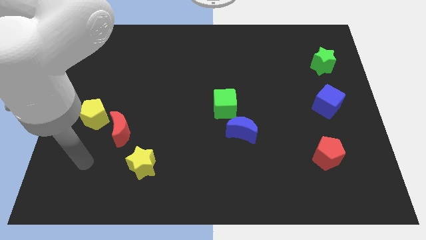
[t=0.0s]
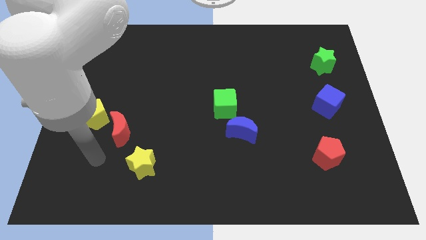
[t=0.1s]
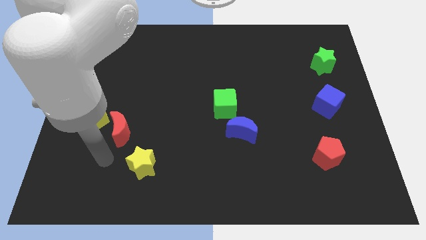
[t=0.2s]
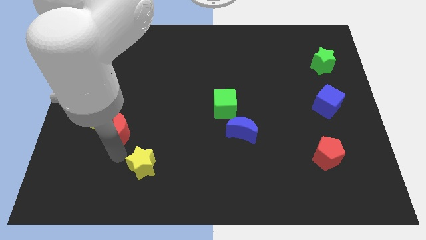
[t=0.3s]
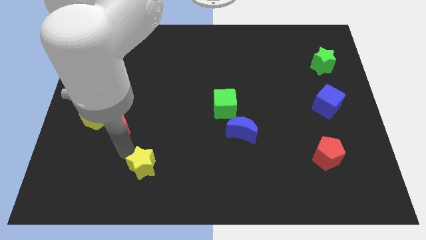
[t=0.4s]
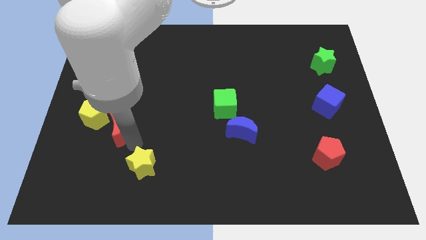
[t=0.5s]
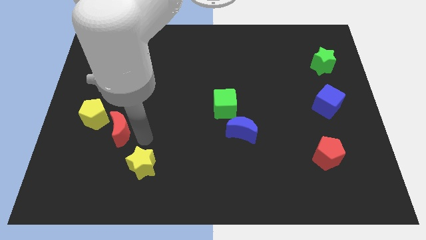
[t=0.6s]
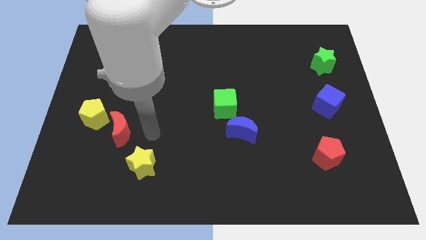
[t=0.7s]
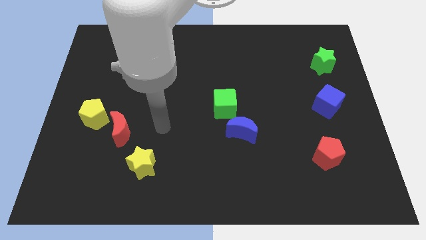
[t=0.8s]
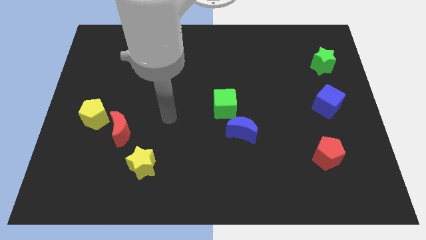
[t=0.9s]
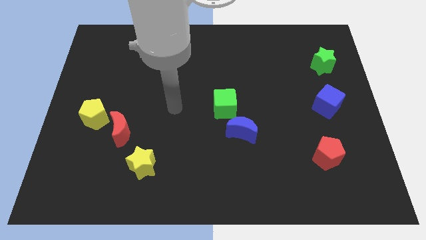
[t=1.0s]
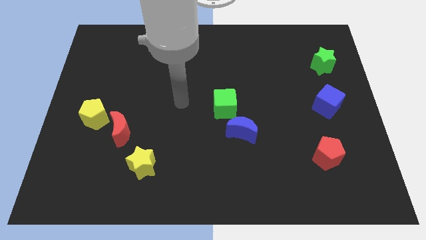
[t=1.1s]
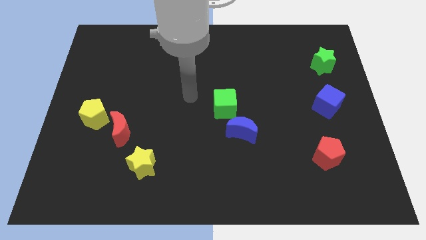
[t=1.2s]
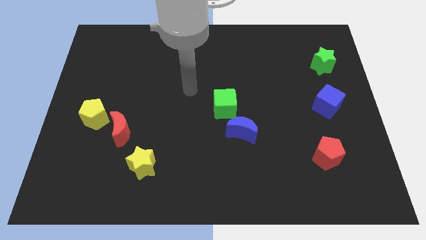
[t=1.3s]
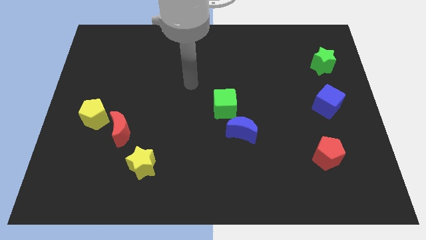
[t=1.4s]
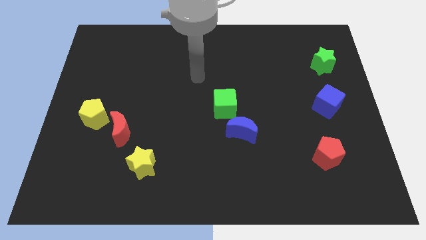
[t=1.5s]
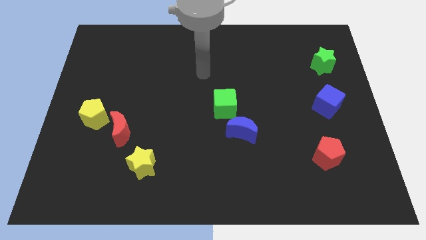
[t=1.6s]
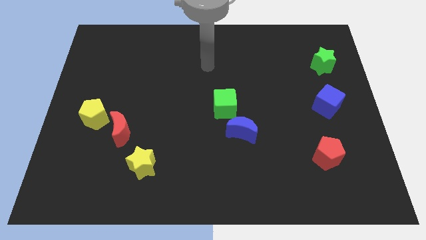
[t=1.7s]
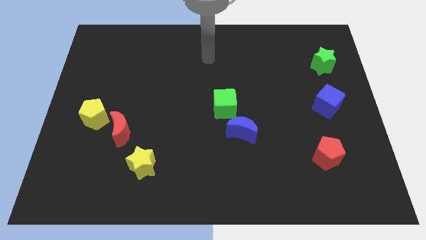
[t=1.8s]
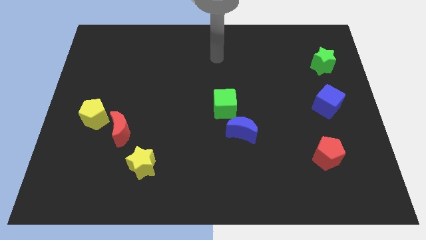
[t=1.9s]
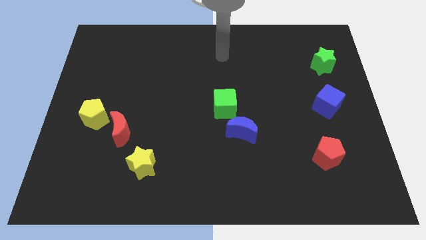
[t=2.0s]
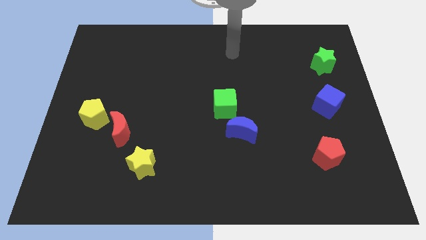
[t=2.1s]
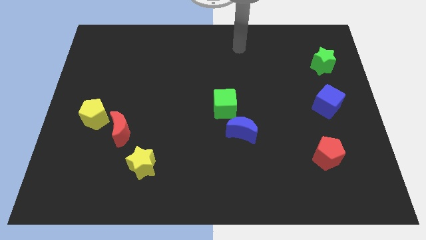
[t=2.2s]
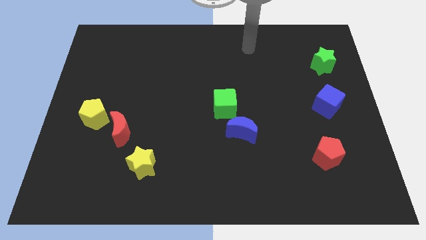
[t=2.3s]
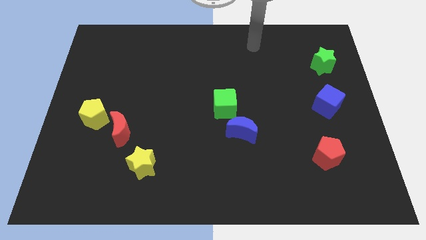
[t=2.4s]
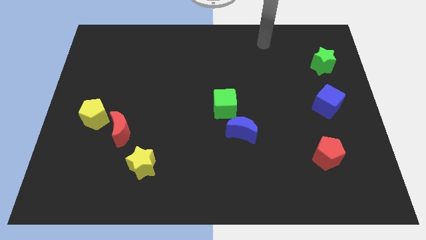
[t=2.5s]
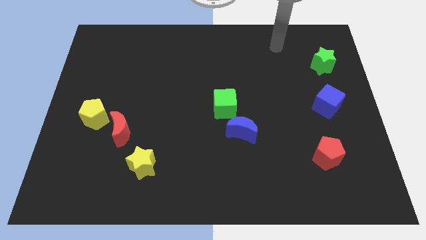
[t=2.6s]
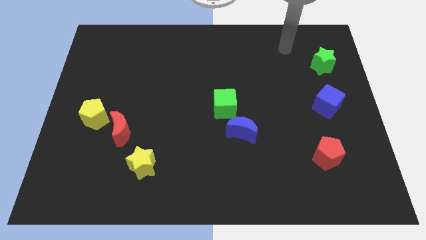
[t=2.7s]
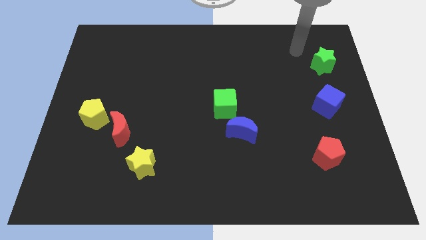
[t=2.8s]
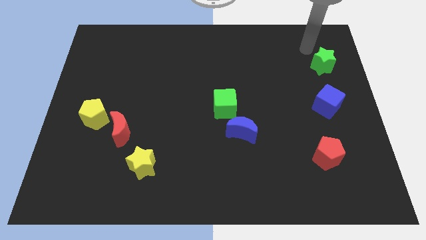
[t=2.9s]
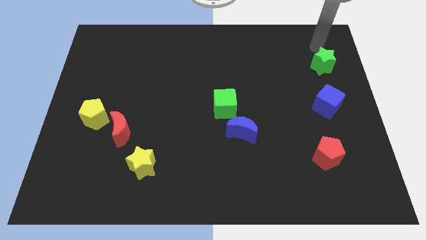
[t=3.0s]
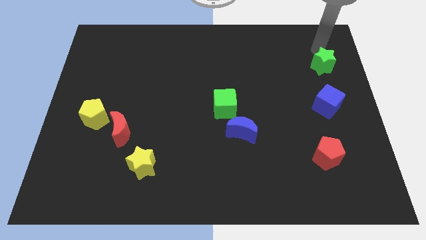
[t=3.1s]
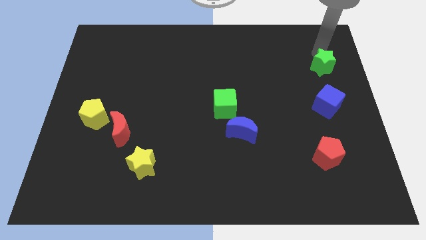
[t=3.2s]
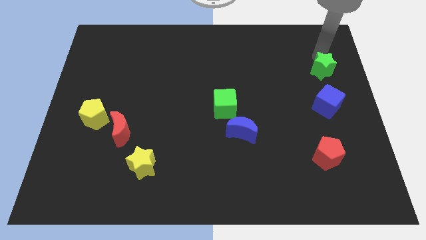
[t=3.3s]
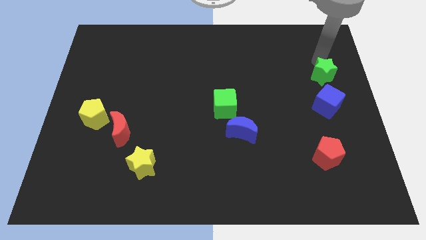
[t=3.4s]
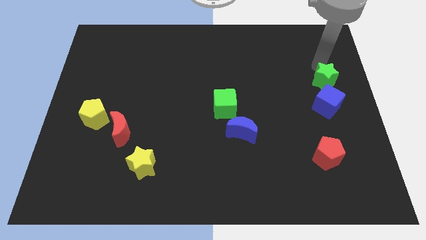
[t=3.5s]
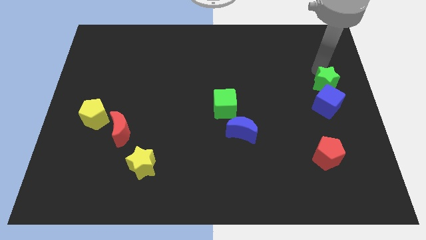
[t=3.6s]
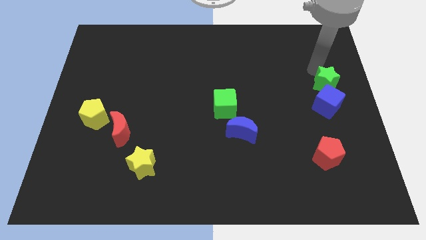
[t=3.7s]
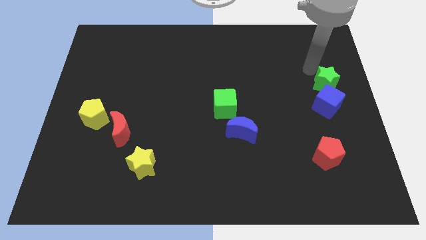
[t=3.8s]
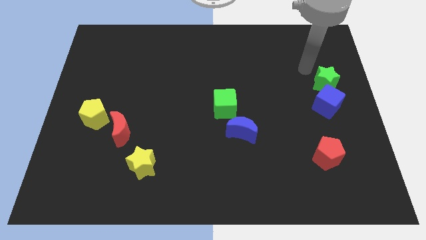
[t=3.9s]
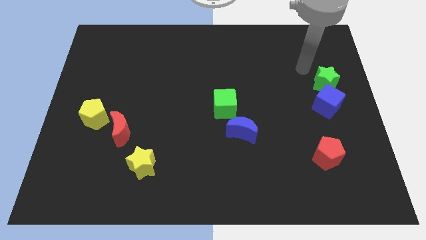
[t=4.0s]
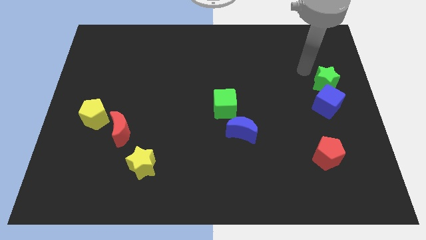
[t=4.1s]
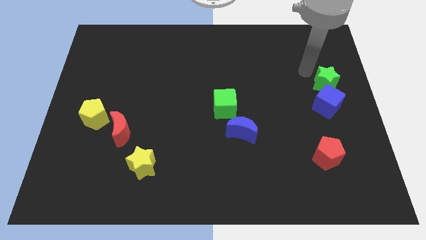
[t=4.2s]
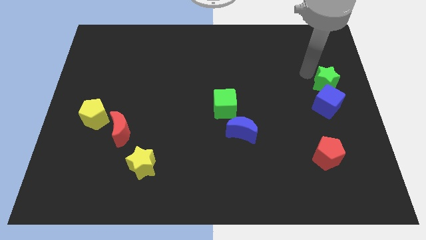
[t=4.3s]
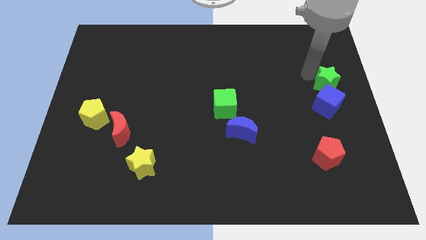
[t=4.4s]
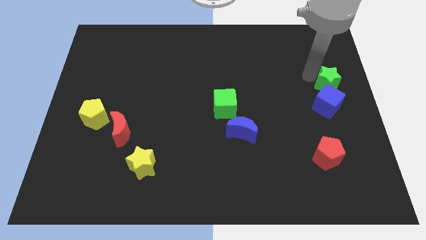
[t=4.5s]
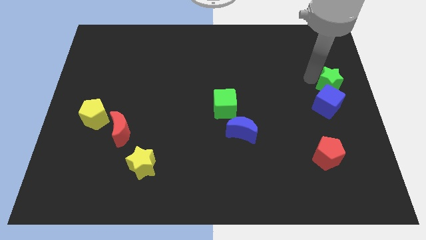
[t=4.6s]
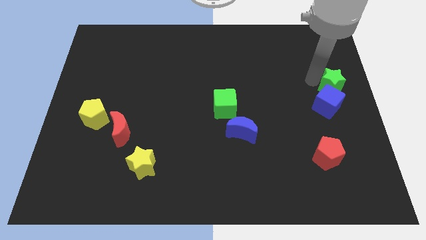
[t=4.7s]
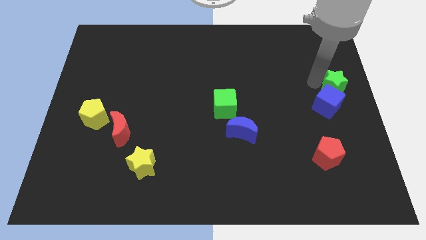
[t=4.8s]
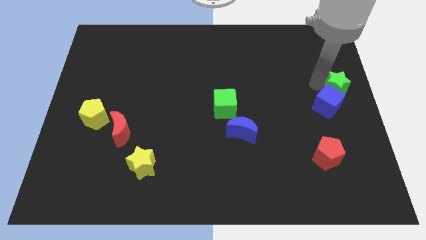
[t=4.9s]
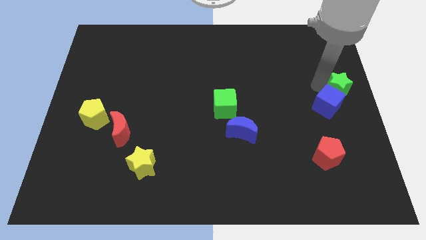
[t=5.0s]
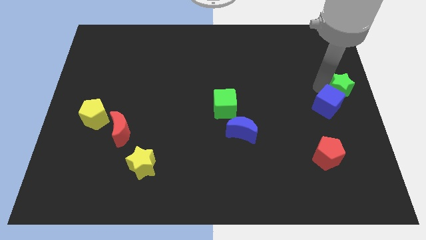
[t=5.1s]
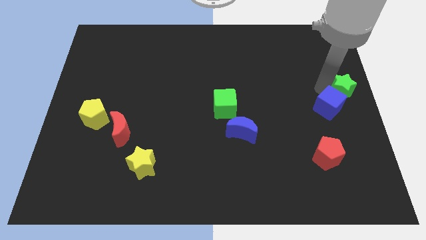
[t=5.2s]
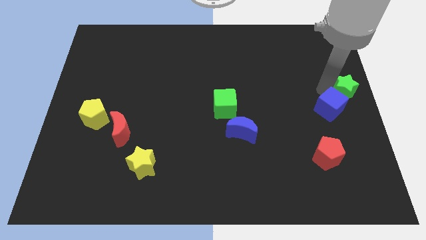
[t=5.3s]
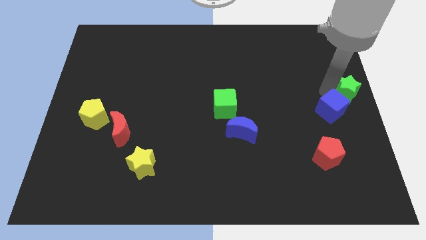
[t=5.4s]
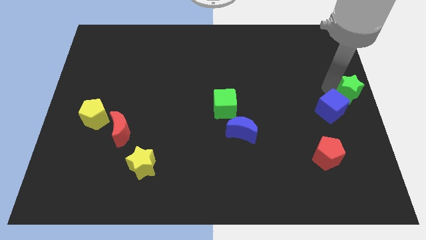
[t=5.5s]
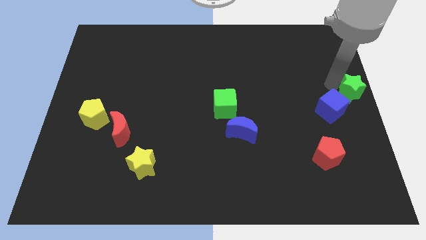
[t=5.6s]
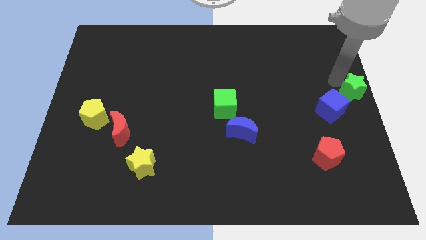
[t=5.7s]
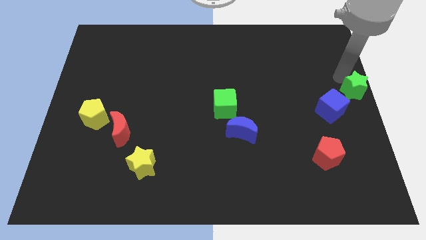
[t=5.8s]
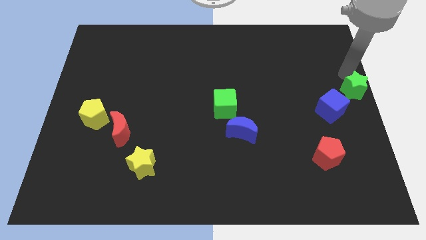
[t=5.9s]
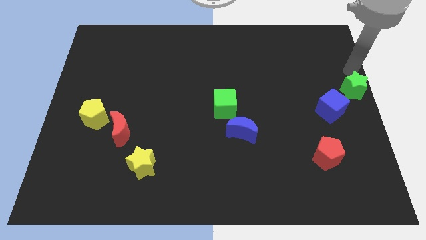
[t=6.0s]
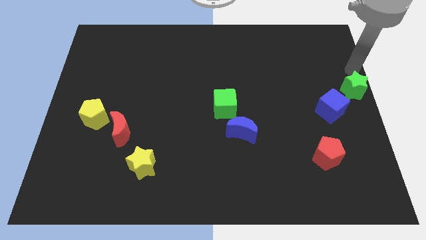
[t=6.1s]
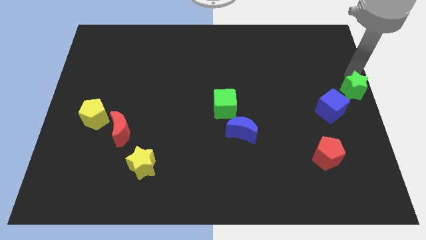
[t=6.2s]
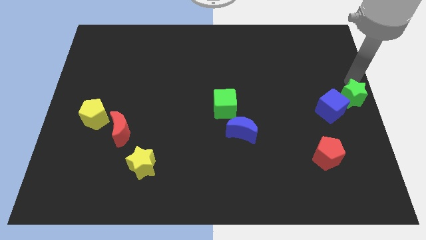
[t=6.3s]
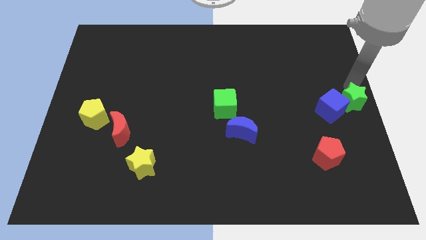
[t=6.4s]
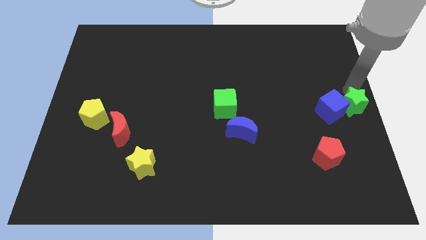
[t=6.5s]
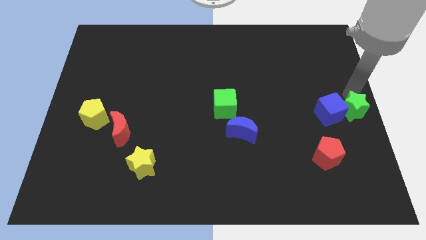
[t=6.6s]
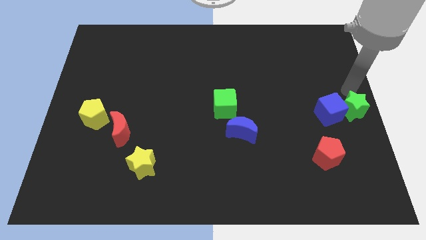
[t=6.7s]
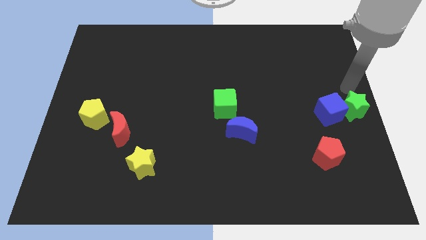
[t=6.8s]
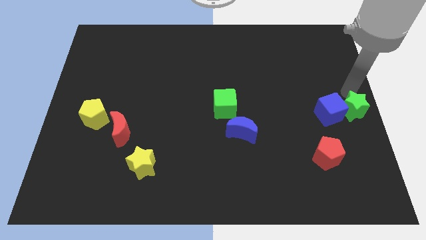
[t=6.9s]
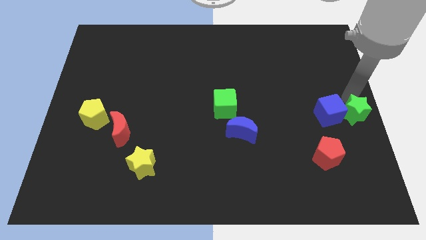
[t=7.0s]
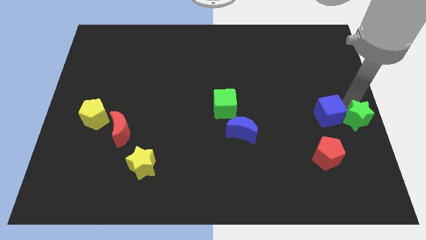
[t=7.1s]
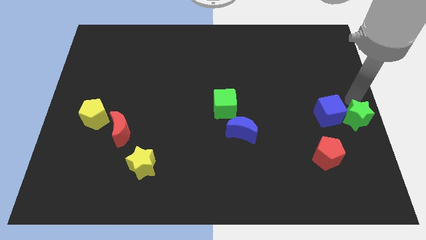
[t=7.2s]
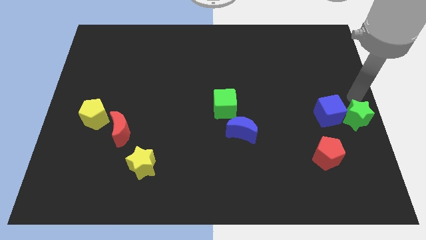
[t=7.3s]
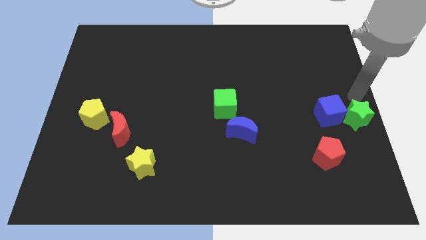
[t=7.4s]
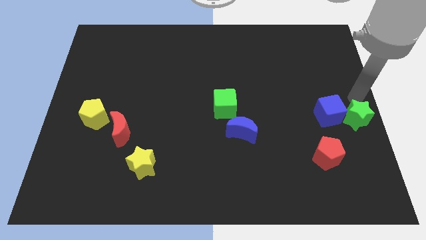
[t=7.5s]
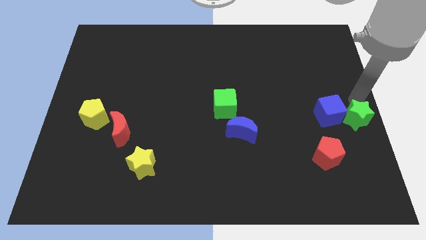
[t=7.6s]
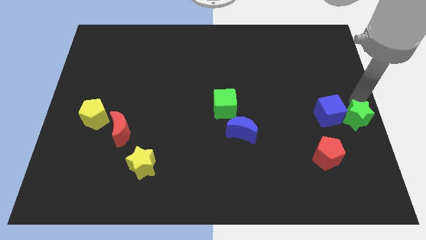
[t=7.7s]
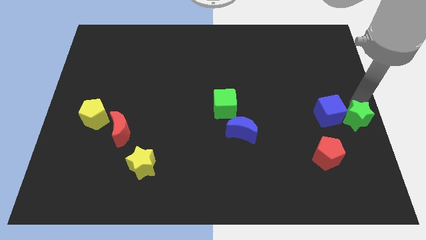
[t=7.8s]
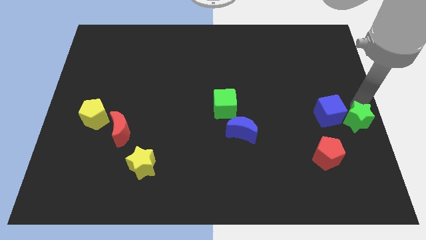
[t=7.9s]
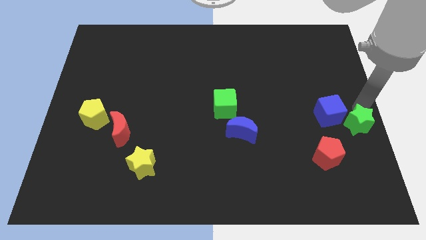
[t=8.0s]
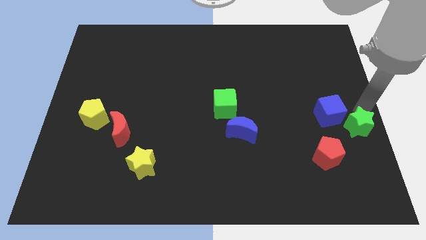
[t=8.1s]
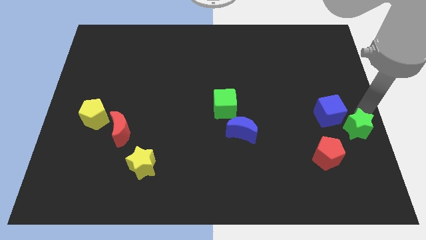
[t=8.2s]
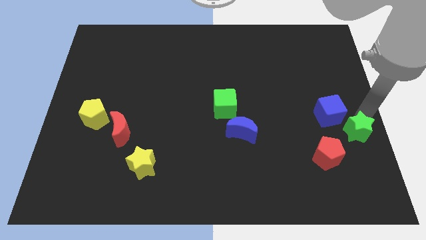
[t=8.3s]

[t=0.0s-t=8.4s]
move the green star down
